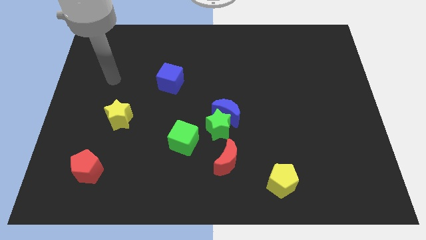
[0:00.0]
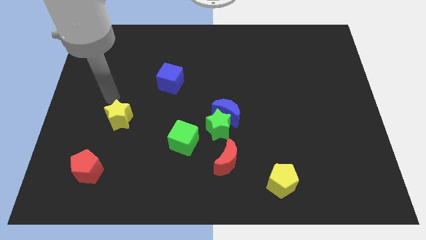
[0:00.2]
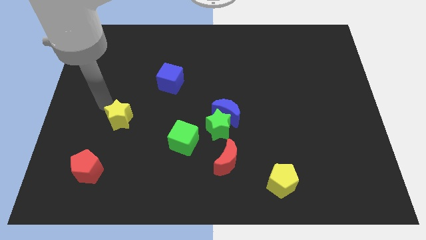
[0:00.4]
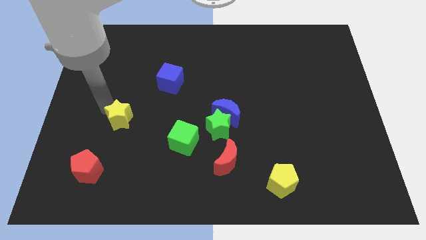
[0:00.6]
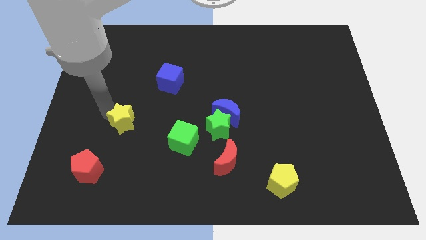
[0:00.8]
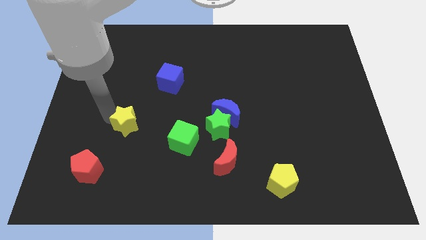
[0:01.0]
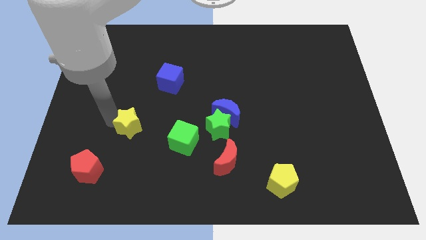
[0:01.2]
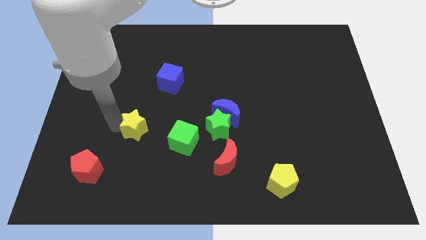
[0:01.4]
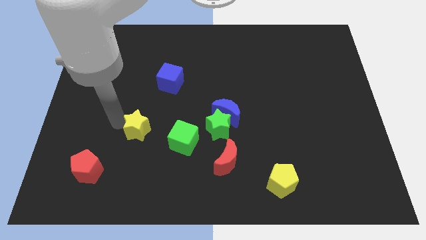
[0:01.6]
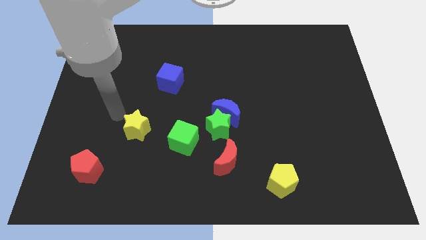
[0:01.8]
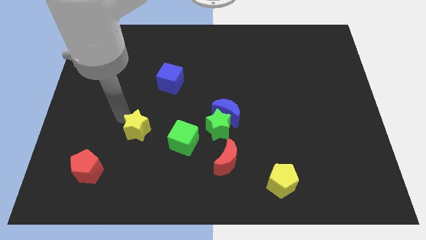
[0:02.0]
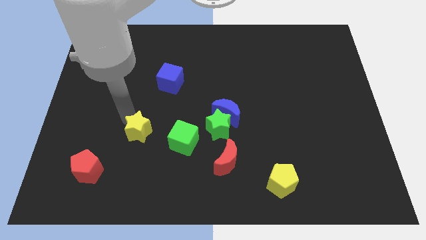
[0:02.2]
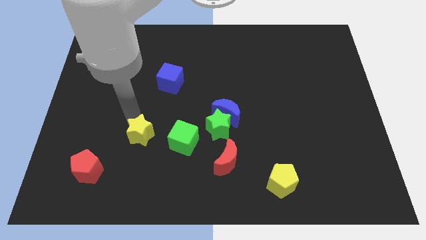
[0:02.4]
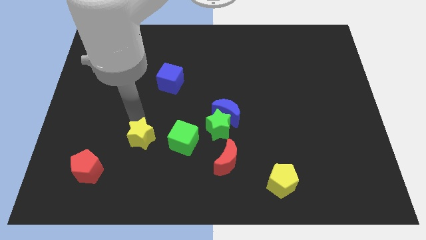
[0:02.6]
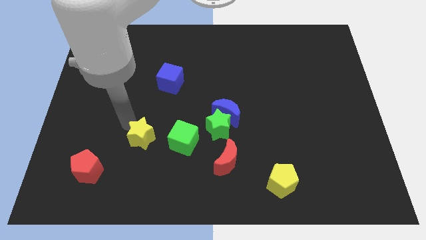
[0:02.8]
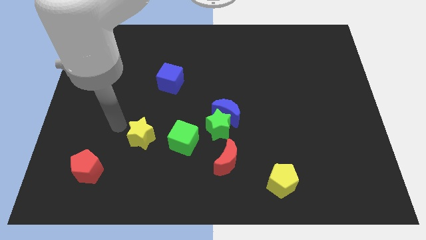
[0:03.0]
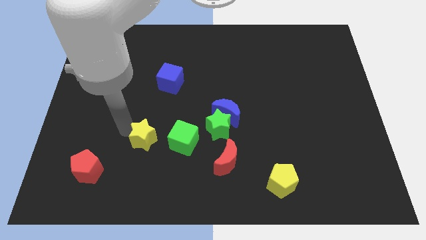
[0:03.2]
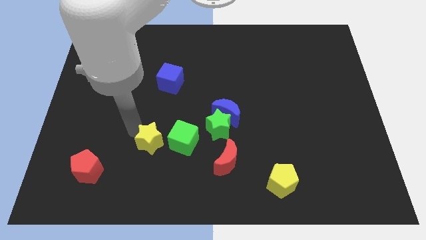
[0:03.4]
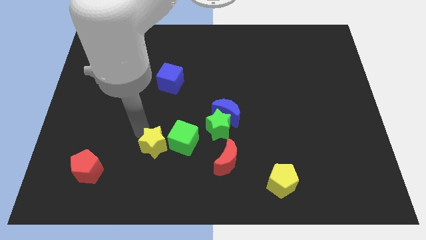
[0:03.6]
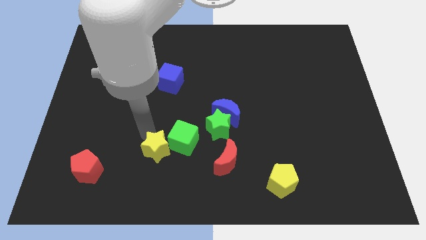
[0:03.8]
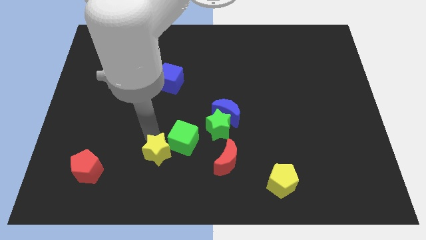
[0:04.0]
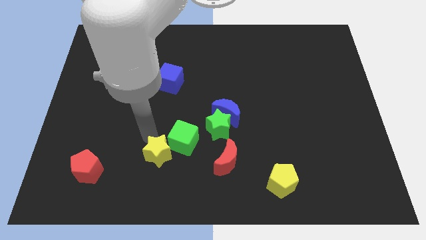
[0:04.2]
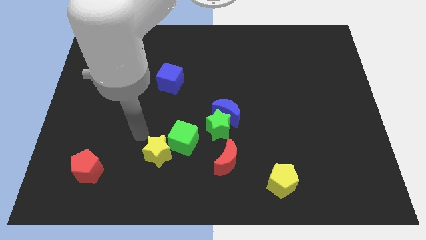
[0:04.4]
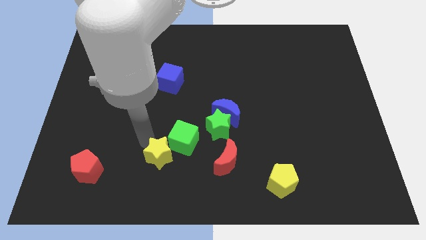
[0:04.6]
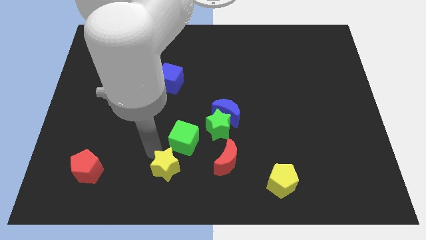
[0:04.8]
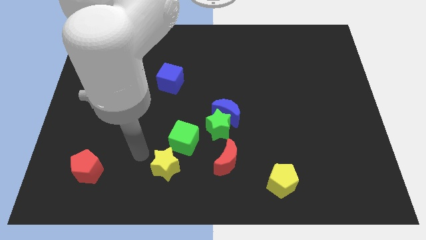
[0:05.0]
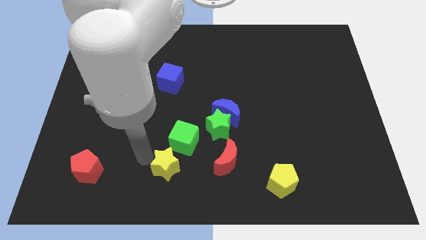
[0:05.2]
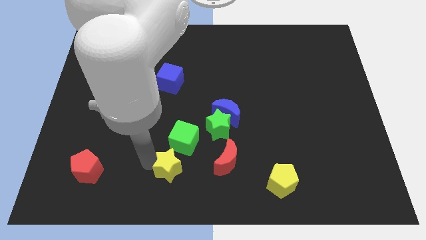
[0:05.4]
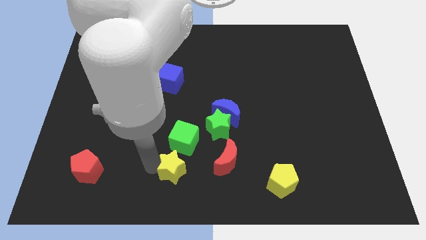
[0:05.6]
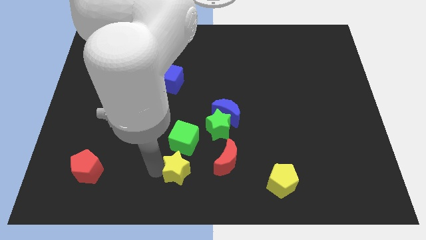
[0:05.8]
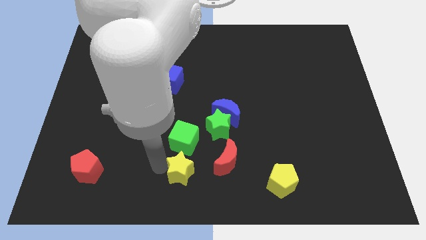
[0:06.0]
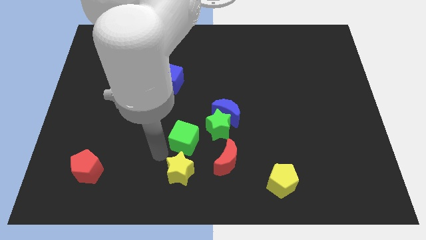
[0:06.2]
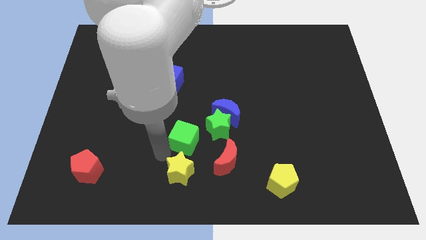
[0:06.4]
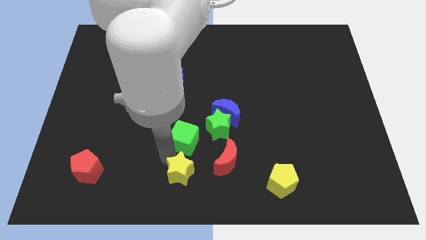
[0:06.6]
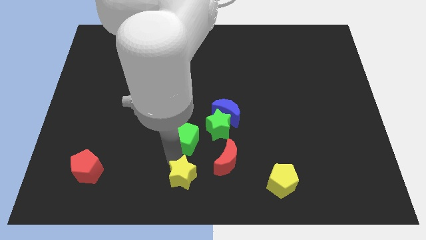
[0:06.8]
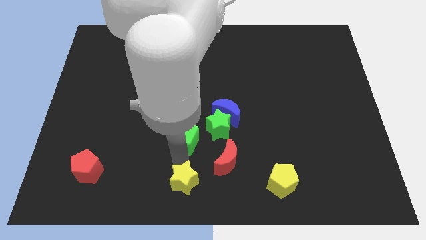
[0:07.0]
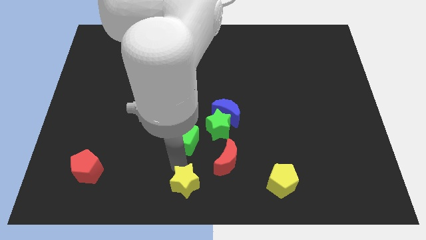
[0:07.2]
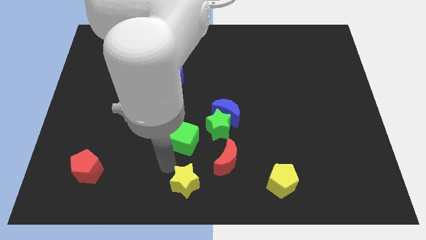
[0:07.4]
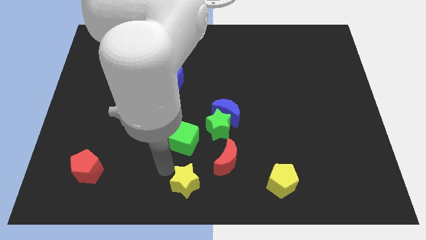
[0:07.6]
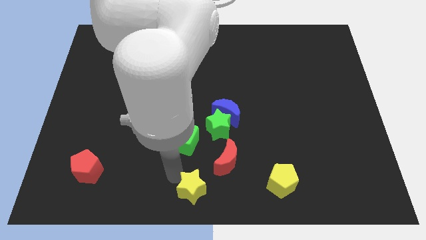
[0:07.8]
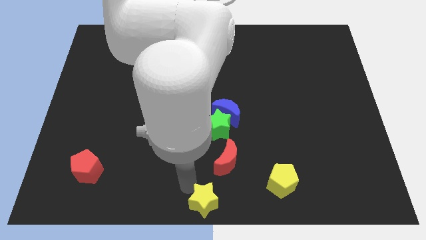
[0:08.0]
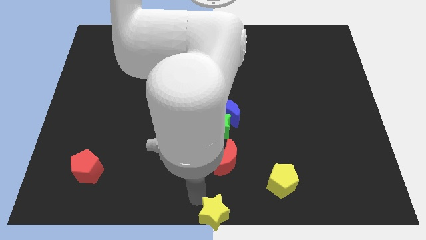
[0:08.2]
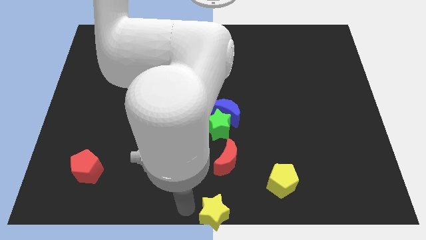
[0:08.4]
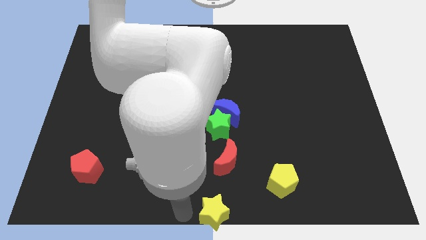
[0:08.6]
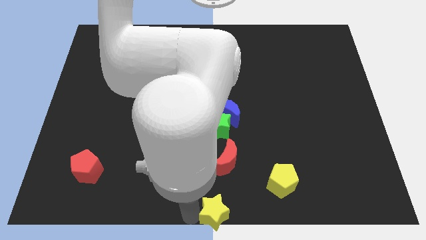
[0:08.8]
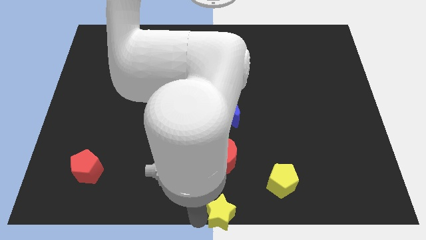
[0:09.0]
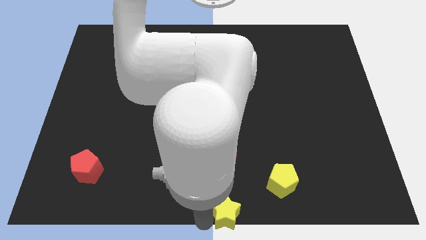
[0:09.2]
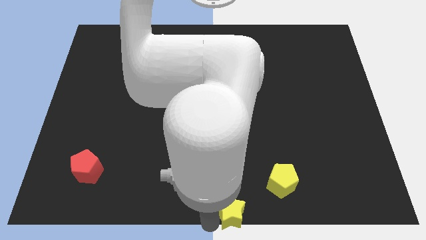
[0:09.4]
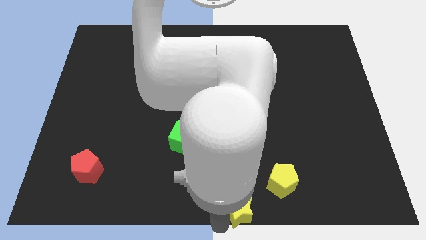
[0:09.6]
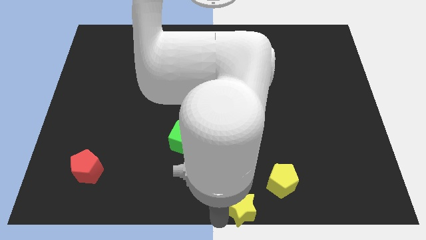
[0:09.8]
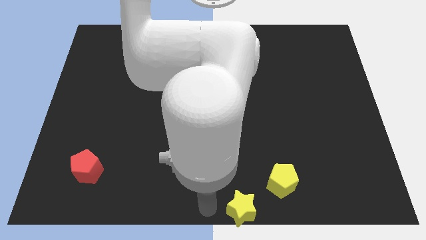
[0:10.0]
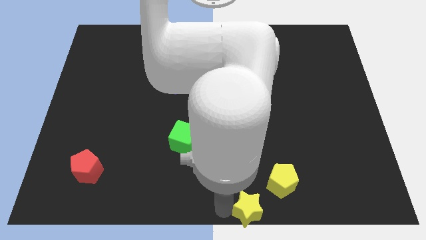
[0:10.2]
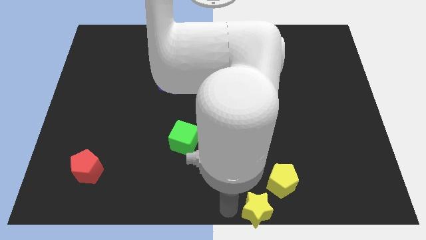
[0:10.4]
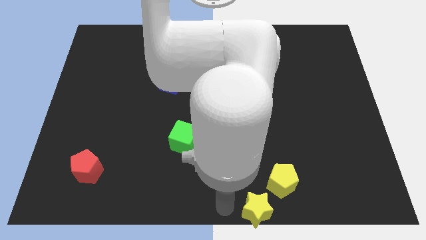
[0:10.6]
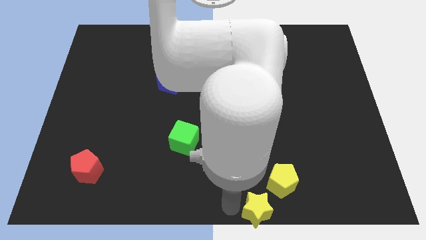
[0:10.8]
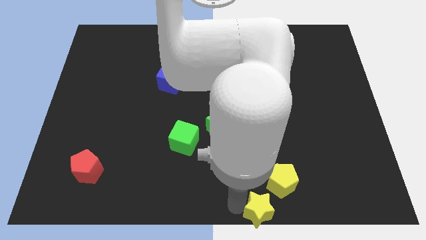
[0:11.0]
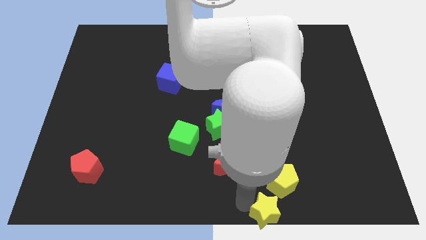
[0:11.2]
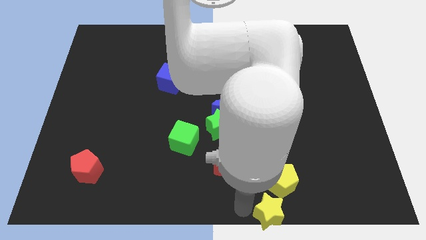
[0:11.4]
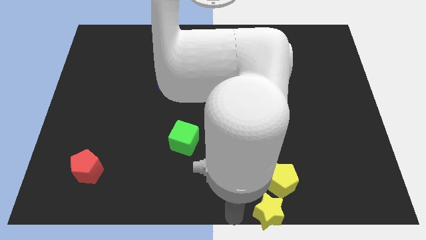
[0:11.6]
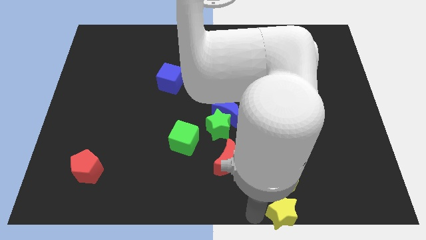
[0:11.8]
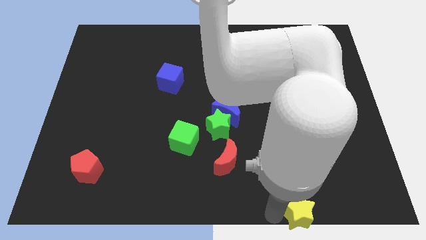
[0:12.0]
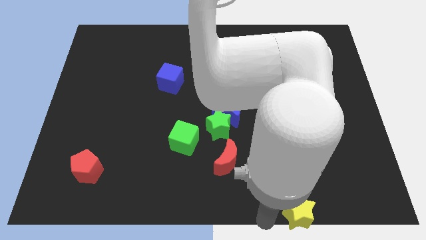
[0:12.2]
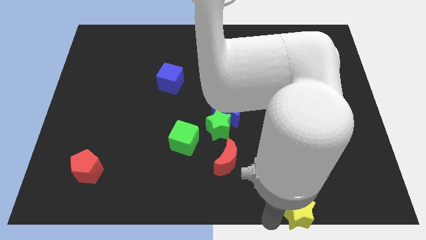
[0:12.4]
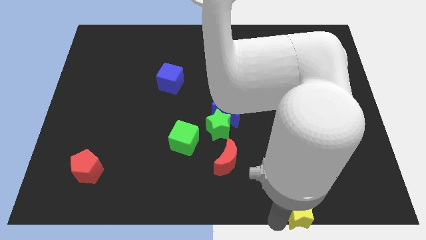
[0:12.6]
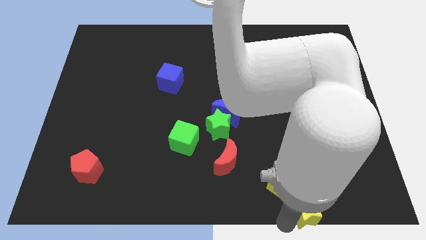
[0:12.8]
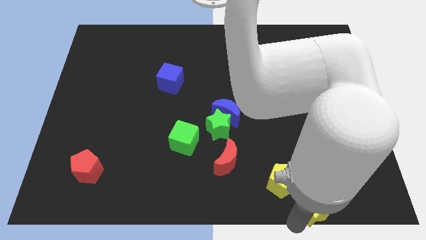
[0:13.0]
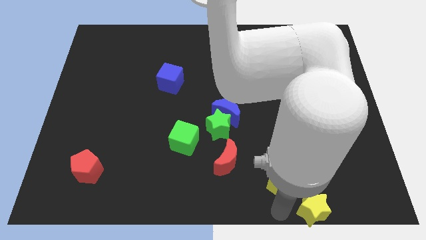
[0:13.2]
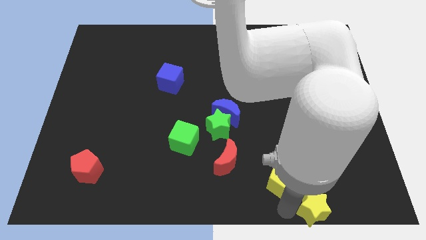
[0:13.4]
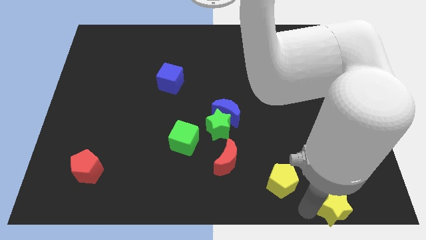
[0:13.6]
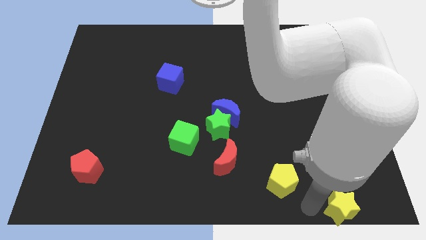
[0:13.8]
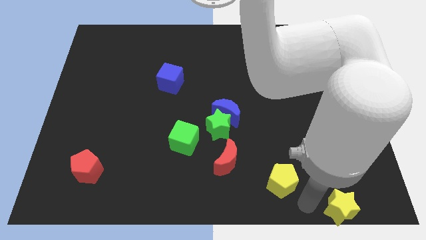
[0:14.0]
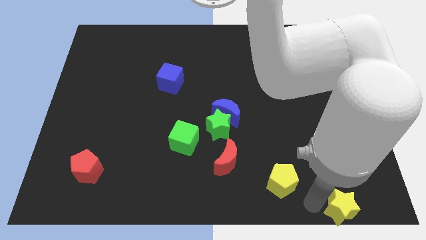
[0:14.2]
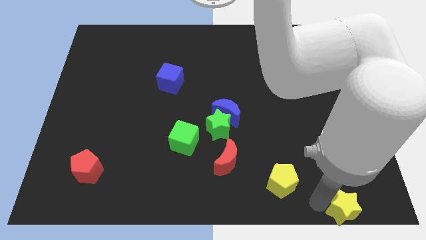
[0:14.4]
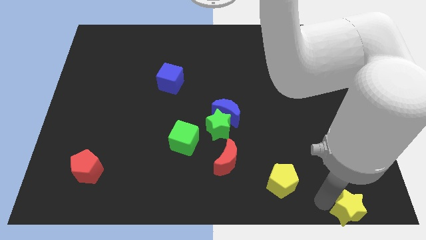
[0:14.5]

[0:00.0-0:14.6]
put the yellow star to the bottom right
